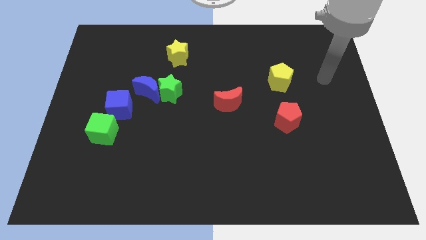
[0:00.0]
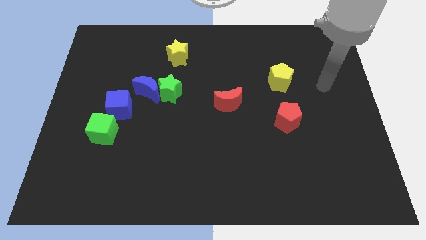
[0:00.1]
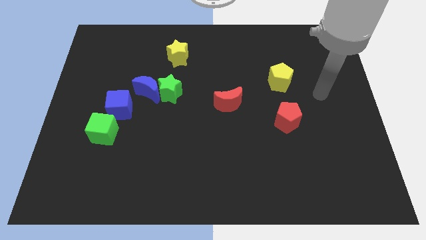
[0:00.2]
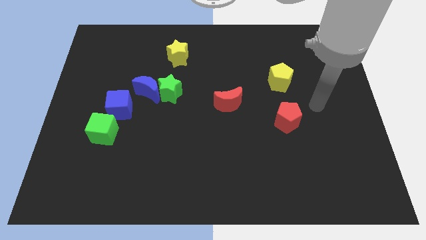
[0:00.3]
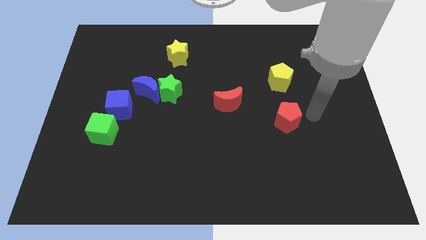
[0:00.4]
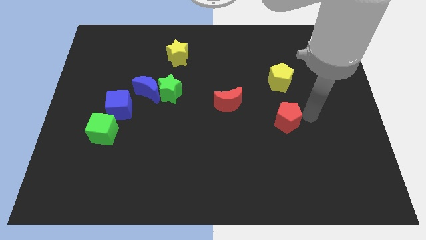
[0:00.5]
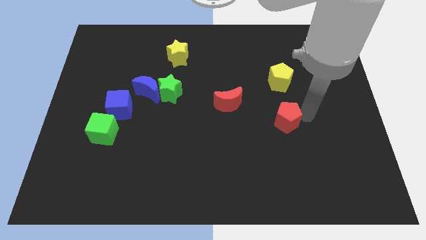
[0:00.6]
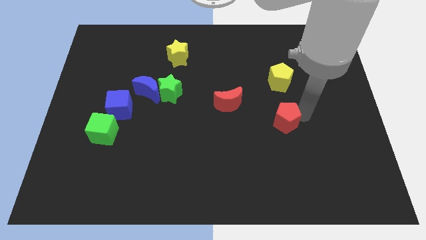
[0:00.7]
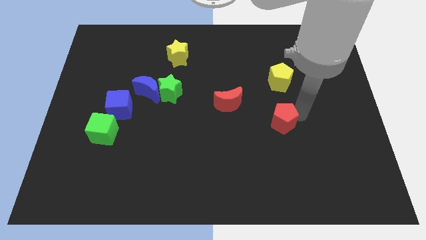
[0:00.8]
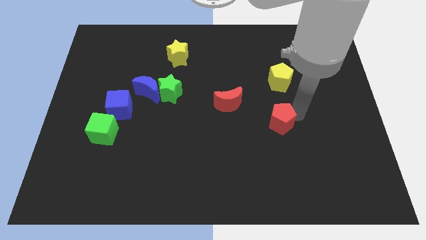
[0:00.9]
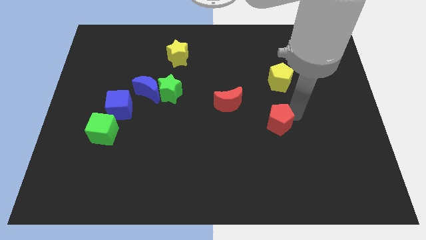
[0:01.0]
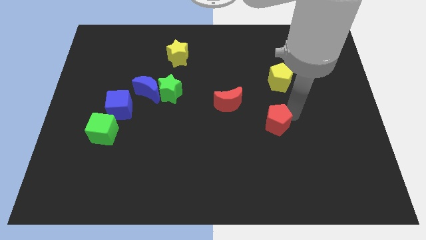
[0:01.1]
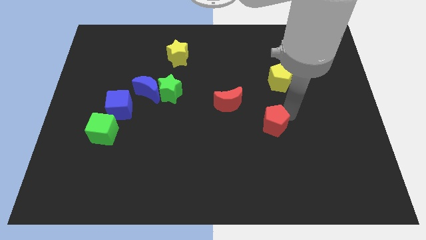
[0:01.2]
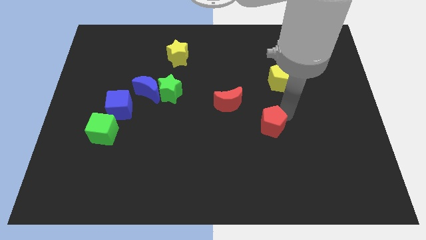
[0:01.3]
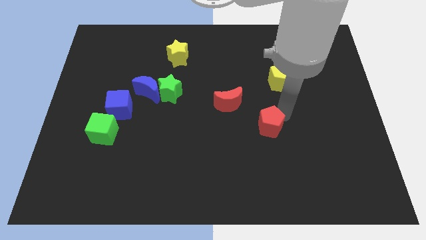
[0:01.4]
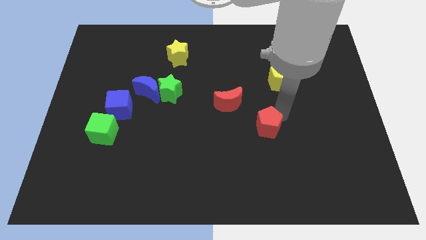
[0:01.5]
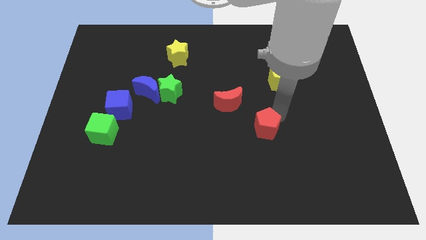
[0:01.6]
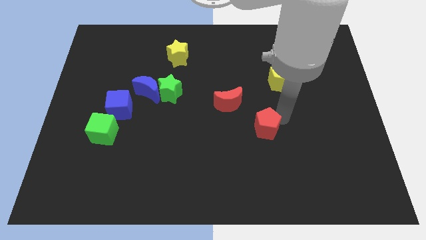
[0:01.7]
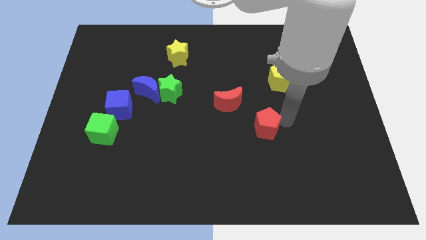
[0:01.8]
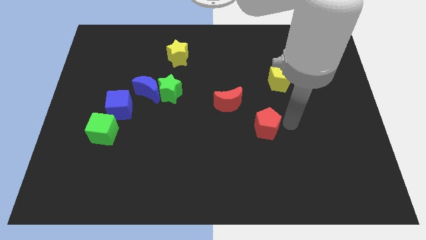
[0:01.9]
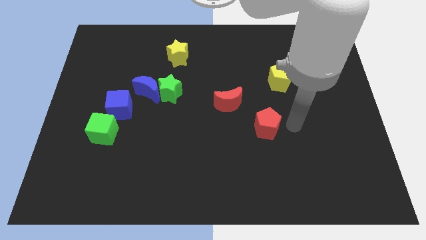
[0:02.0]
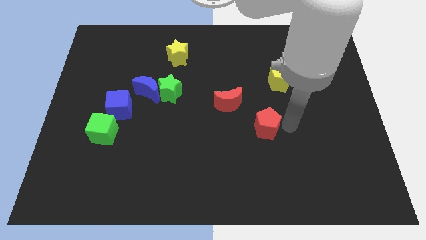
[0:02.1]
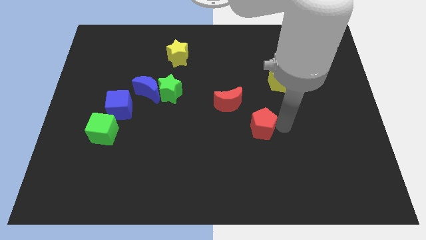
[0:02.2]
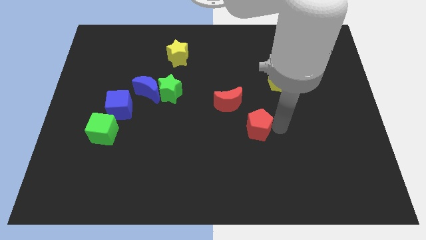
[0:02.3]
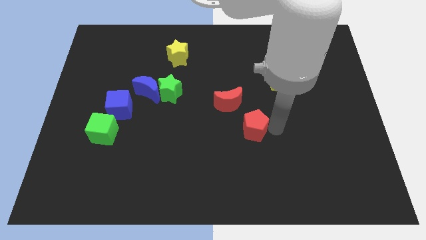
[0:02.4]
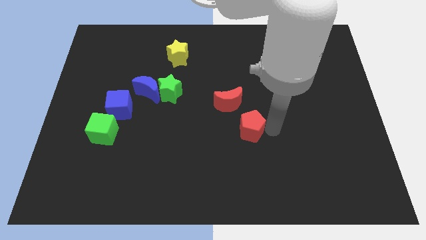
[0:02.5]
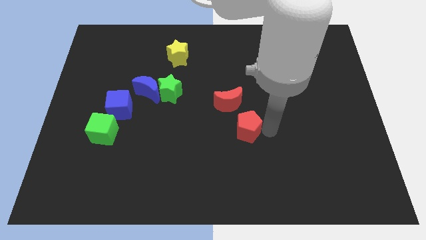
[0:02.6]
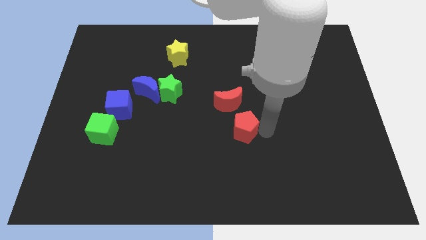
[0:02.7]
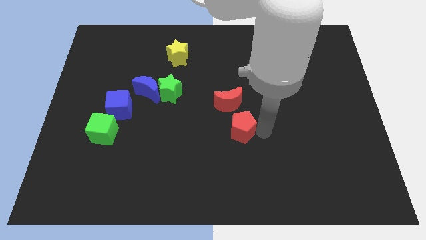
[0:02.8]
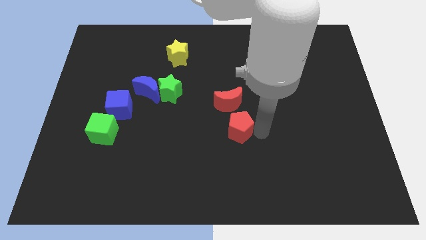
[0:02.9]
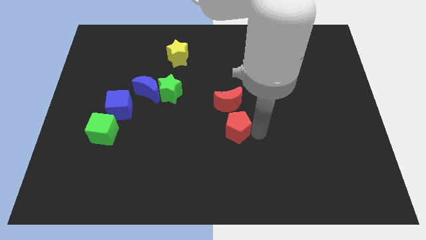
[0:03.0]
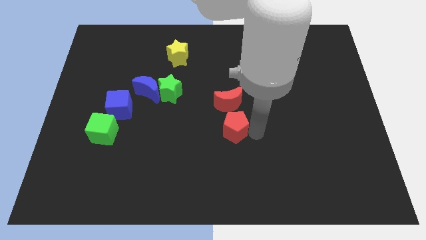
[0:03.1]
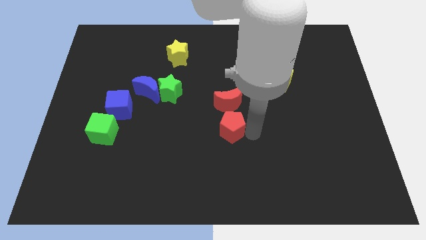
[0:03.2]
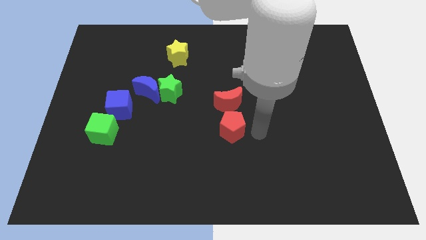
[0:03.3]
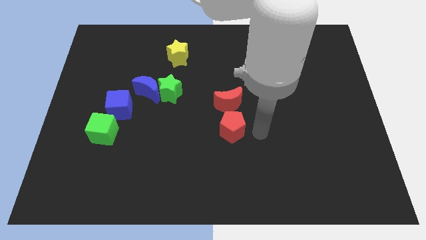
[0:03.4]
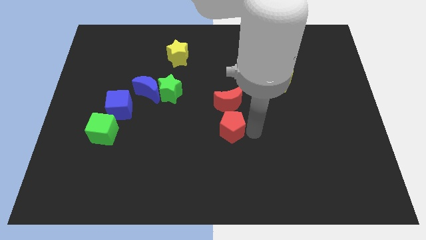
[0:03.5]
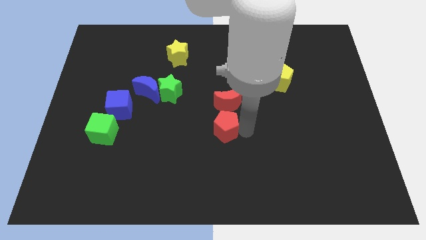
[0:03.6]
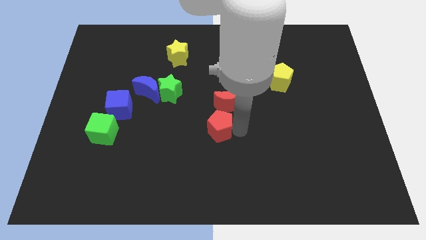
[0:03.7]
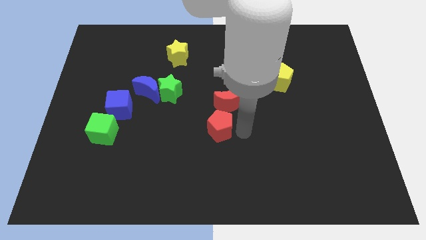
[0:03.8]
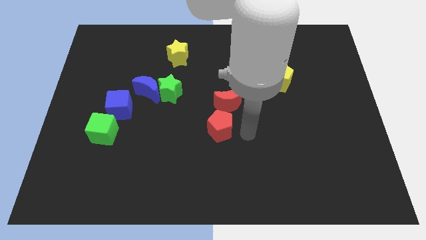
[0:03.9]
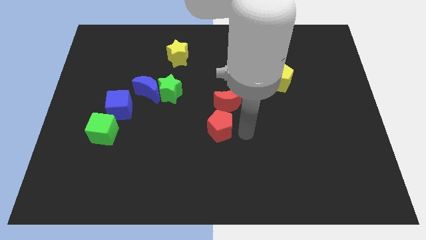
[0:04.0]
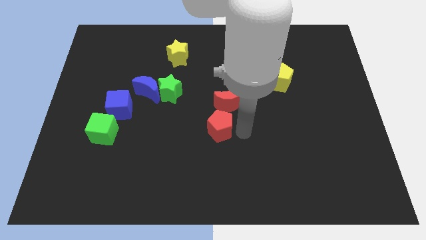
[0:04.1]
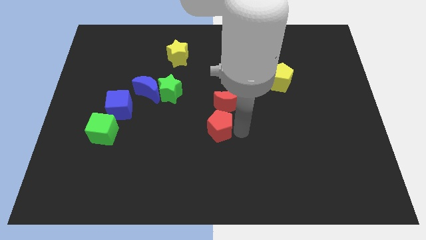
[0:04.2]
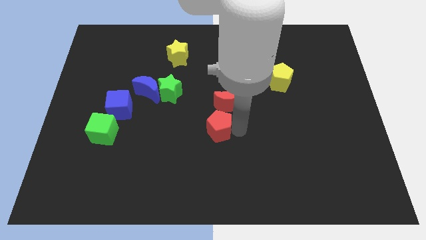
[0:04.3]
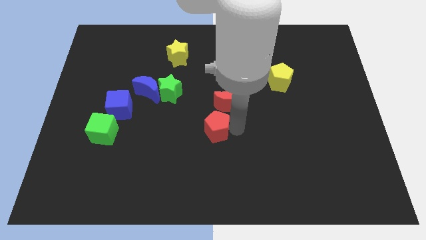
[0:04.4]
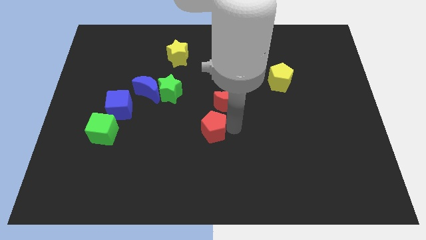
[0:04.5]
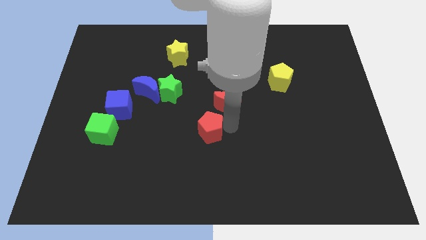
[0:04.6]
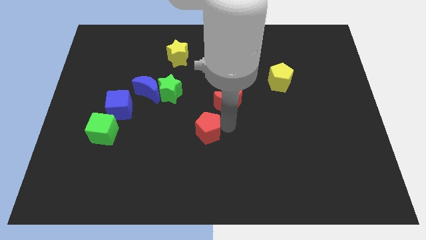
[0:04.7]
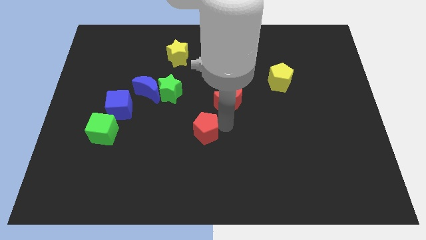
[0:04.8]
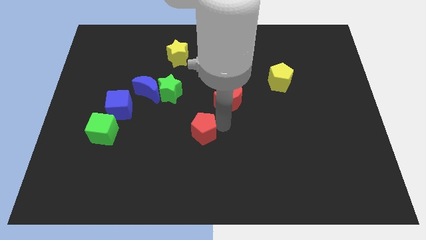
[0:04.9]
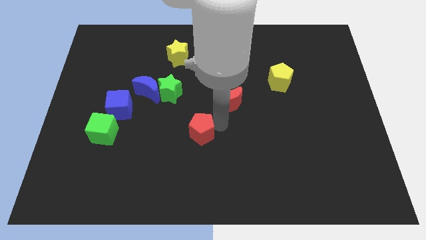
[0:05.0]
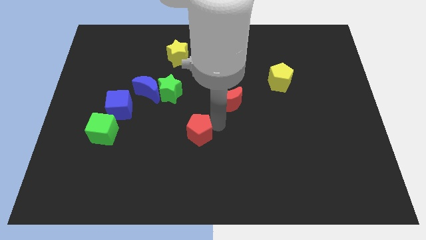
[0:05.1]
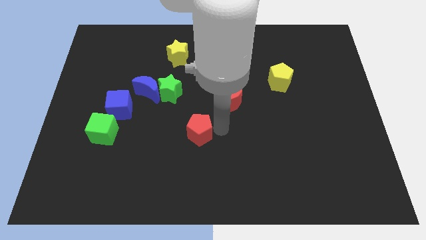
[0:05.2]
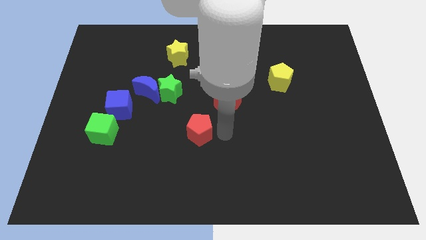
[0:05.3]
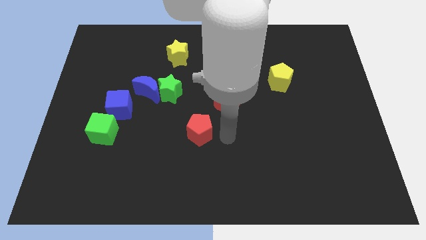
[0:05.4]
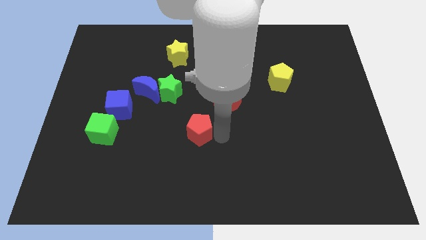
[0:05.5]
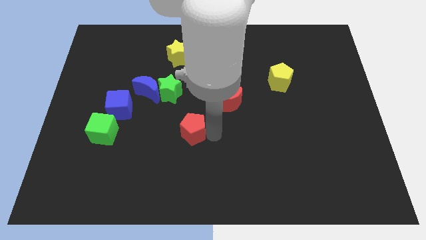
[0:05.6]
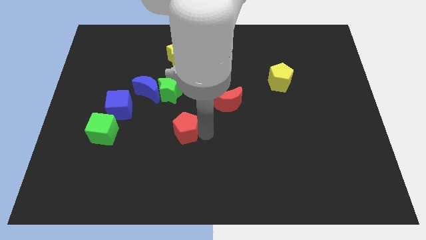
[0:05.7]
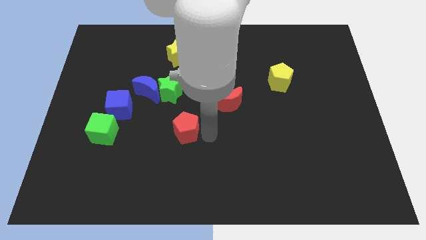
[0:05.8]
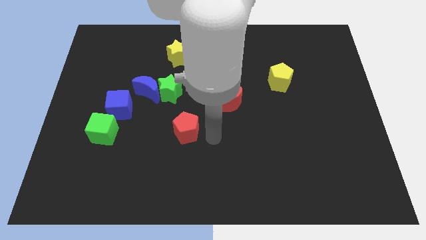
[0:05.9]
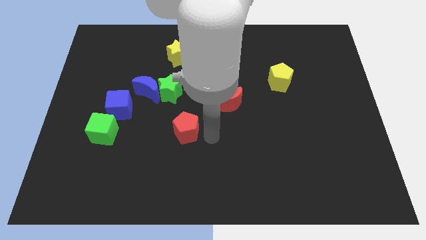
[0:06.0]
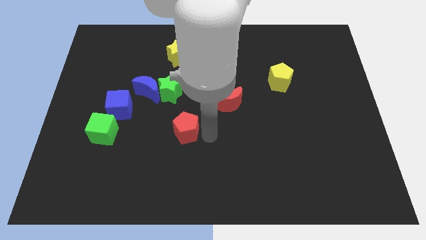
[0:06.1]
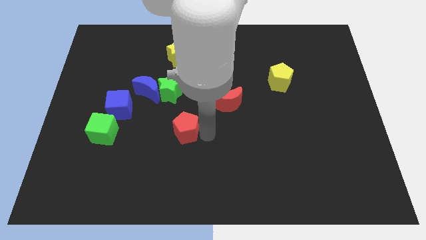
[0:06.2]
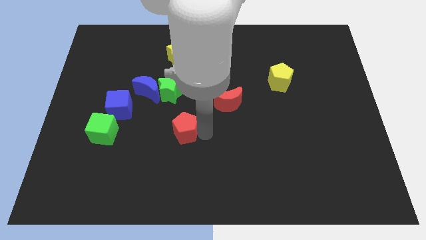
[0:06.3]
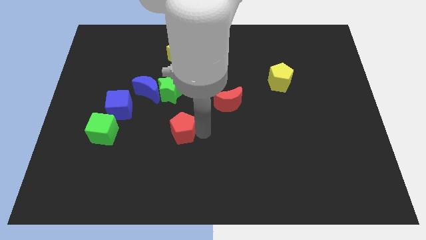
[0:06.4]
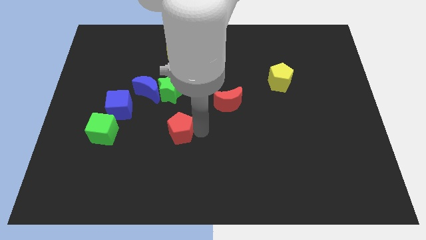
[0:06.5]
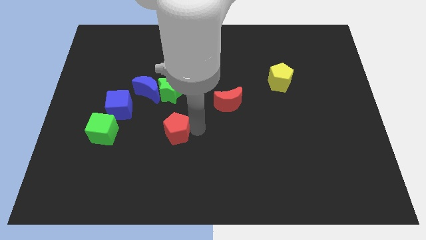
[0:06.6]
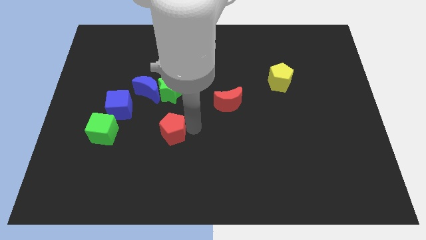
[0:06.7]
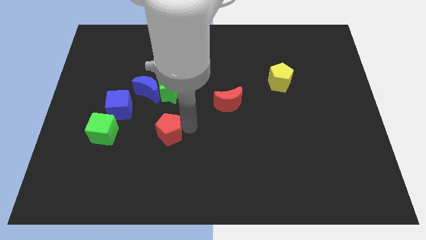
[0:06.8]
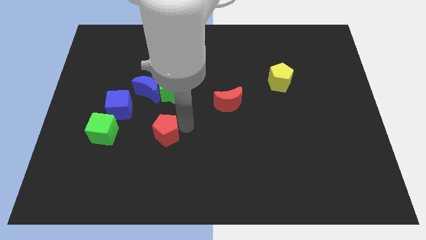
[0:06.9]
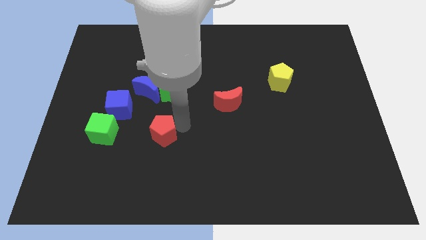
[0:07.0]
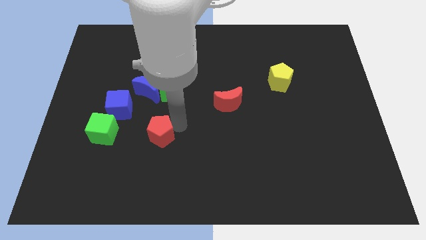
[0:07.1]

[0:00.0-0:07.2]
push the red pentagon diagonally down and to the right of the blue cube
